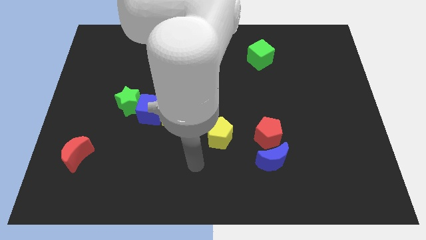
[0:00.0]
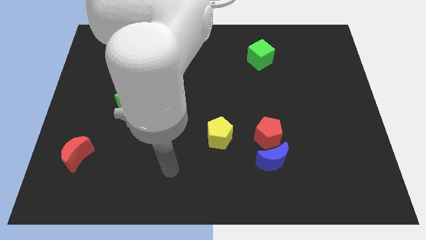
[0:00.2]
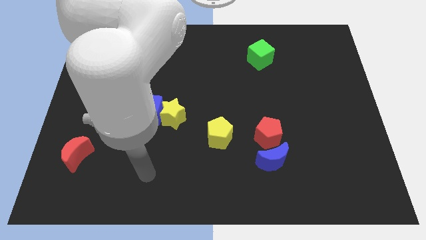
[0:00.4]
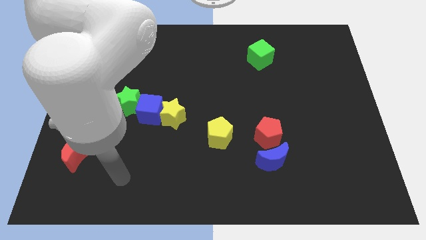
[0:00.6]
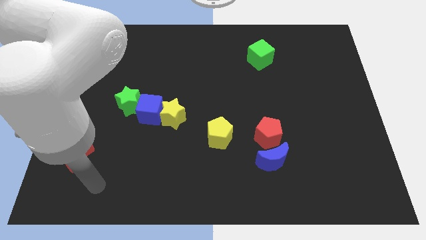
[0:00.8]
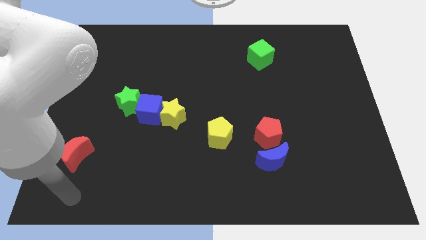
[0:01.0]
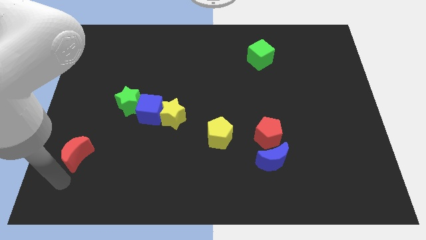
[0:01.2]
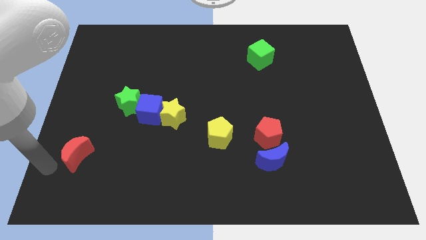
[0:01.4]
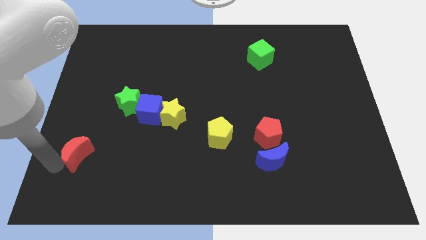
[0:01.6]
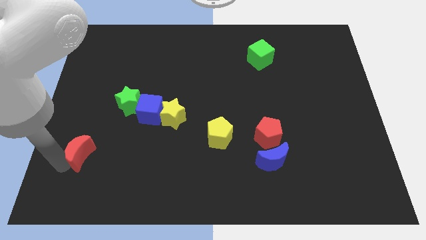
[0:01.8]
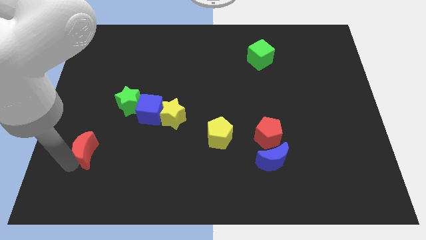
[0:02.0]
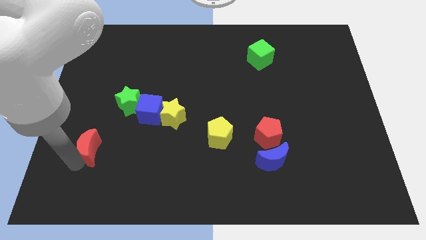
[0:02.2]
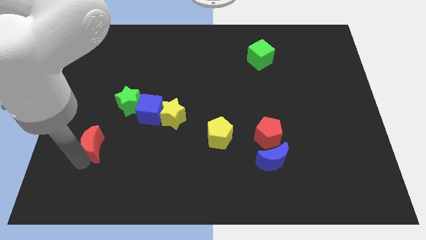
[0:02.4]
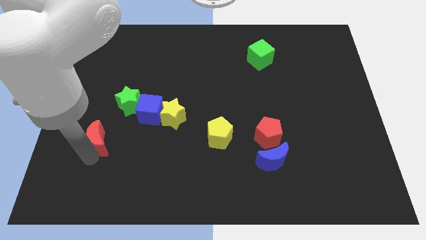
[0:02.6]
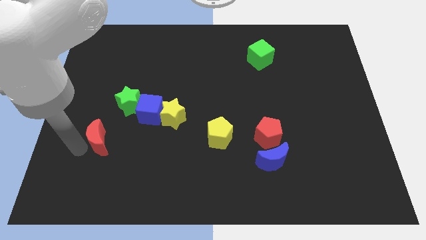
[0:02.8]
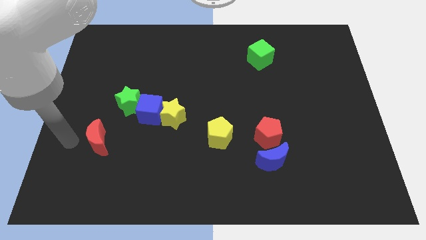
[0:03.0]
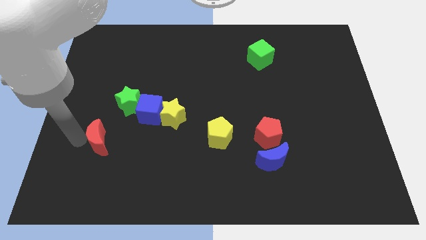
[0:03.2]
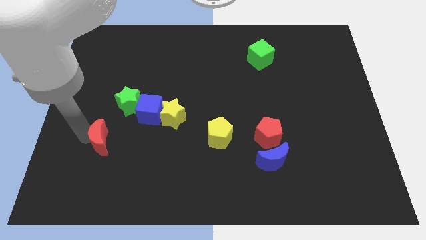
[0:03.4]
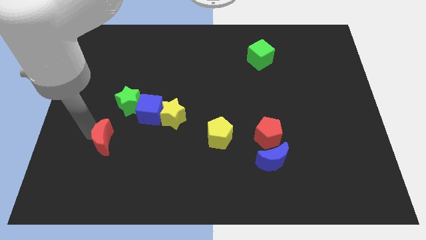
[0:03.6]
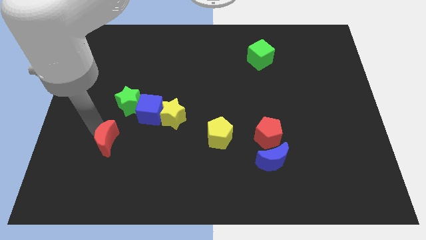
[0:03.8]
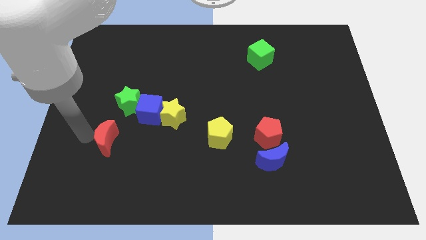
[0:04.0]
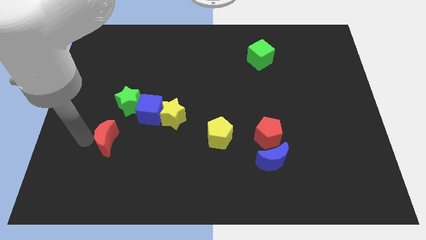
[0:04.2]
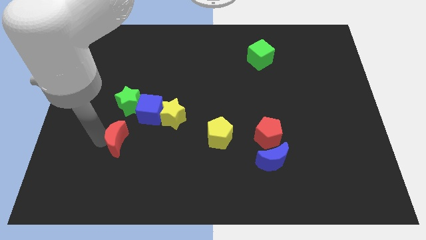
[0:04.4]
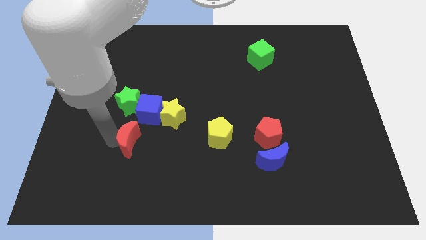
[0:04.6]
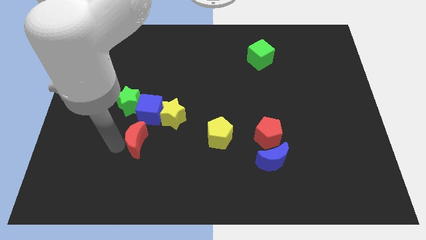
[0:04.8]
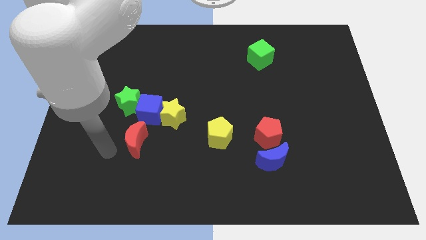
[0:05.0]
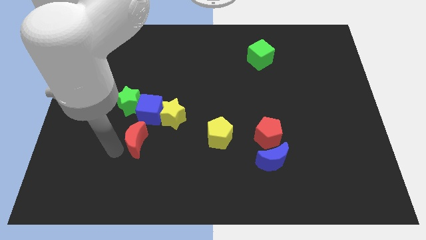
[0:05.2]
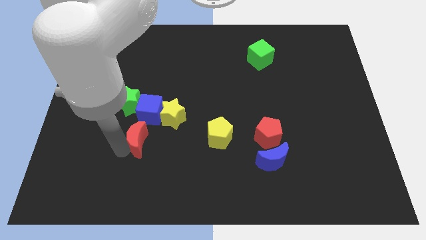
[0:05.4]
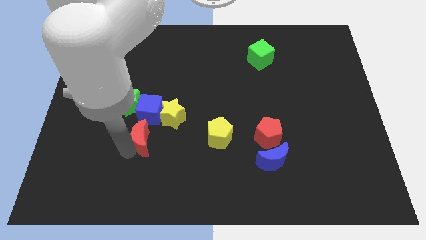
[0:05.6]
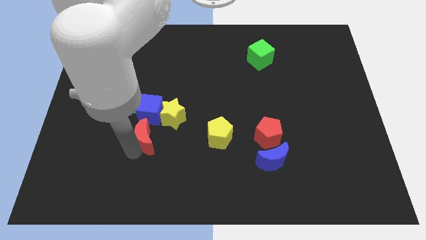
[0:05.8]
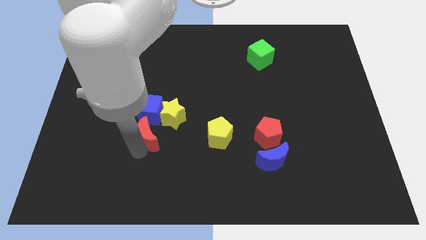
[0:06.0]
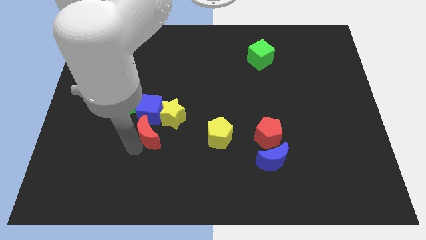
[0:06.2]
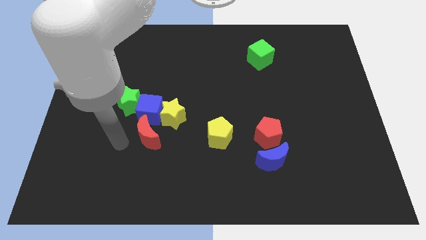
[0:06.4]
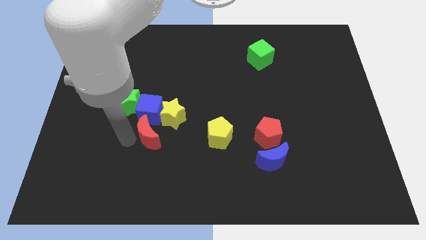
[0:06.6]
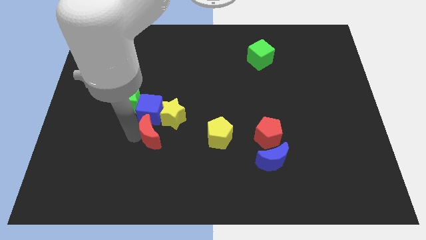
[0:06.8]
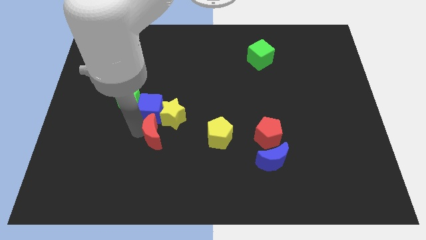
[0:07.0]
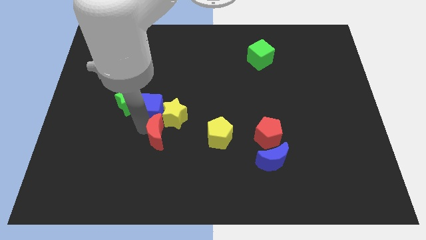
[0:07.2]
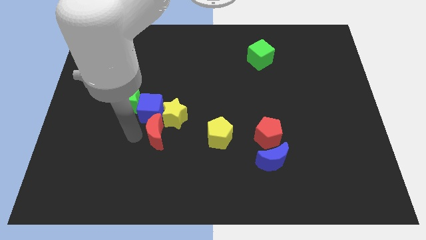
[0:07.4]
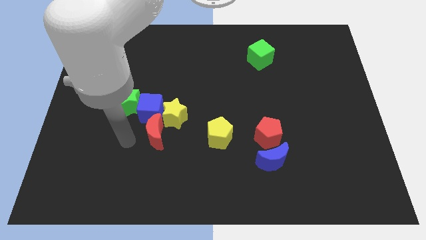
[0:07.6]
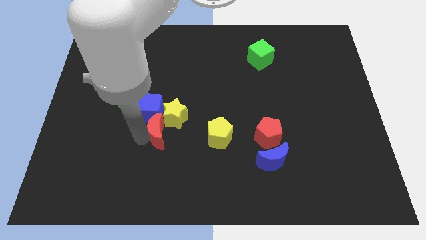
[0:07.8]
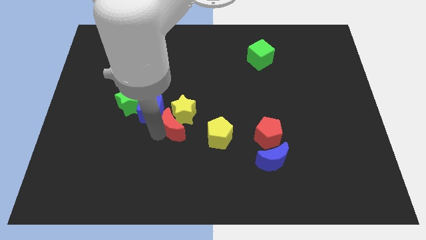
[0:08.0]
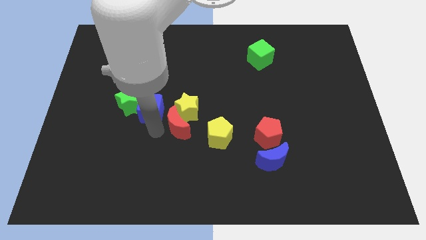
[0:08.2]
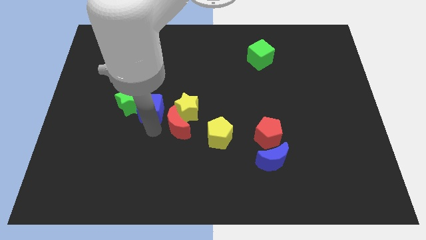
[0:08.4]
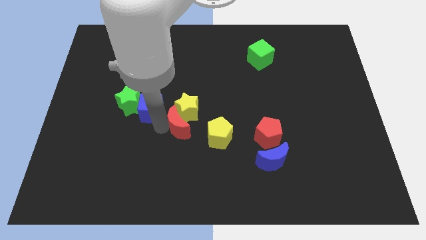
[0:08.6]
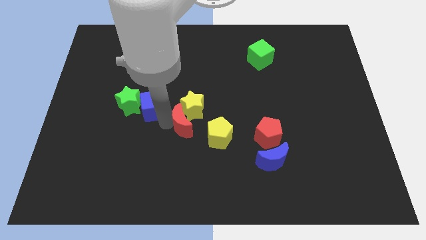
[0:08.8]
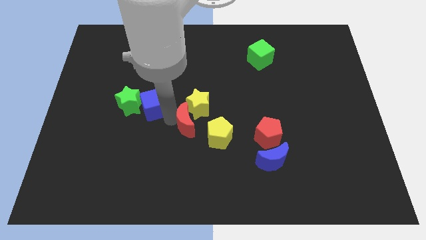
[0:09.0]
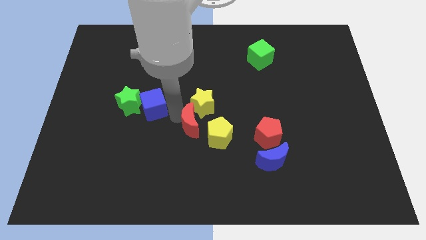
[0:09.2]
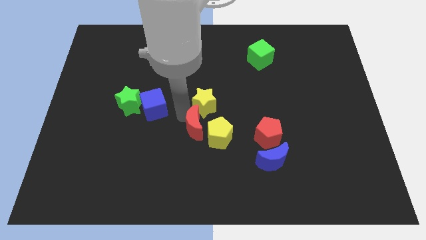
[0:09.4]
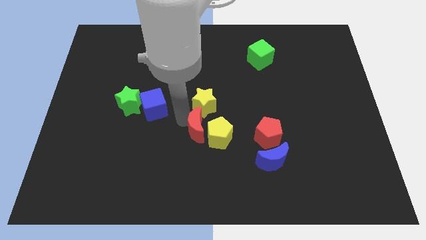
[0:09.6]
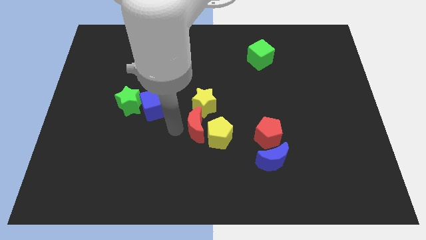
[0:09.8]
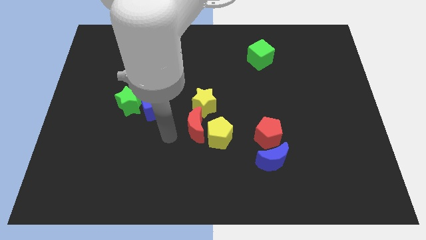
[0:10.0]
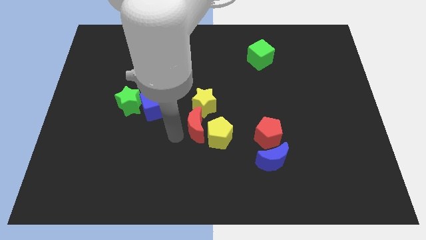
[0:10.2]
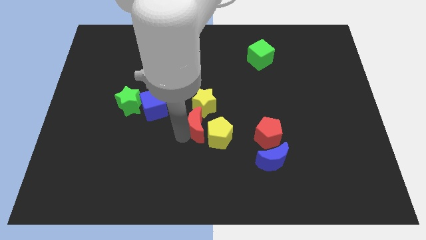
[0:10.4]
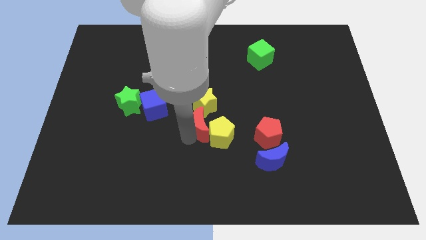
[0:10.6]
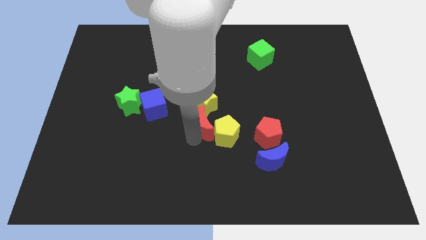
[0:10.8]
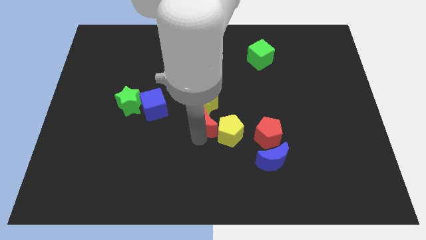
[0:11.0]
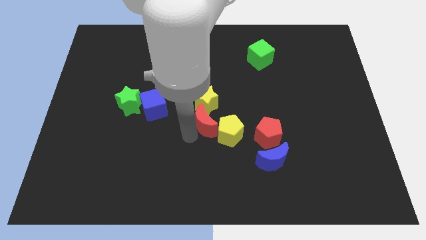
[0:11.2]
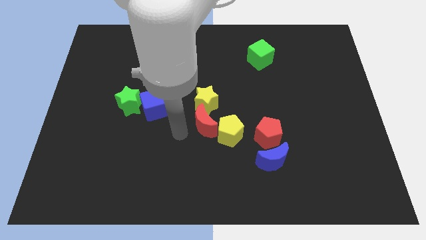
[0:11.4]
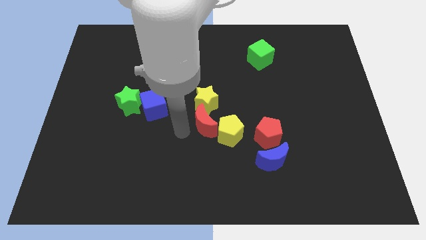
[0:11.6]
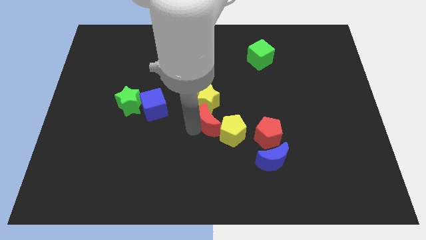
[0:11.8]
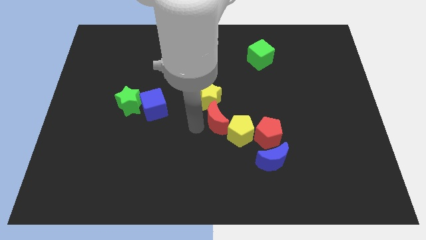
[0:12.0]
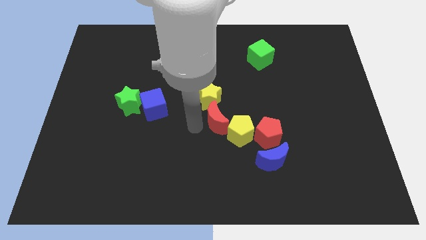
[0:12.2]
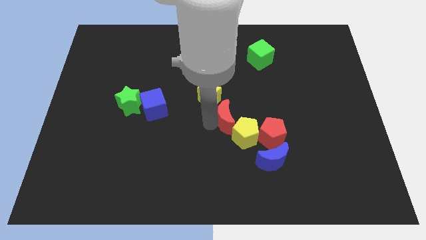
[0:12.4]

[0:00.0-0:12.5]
put the red moon to the top left of the red pentagon

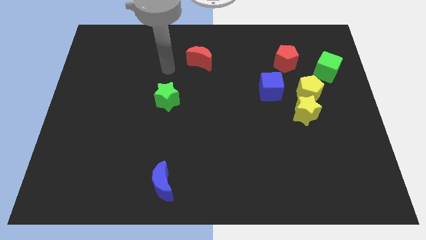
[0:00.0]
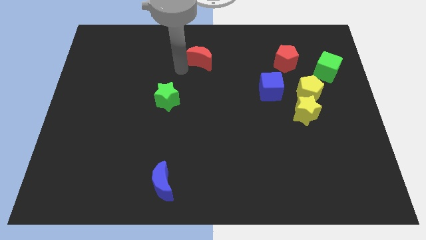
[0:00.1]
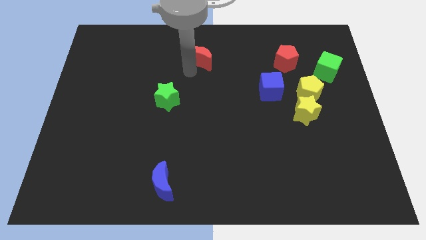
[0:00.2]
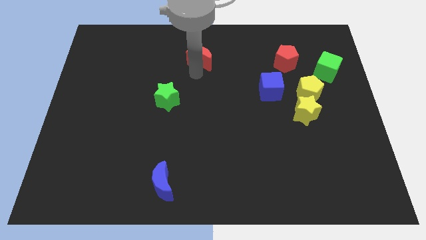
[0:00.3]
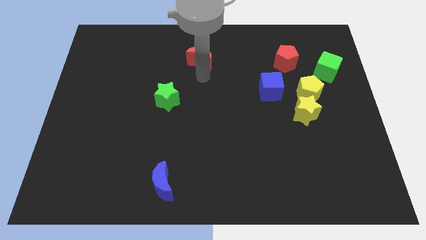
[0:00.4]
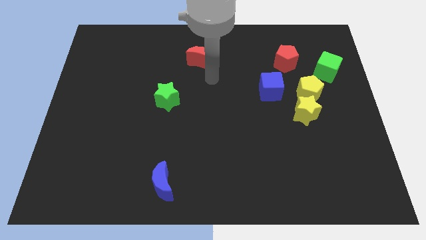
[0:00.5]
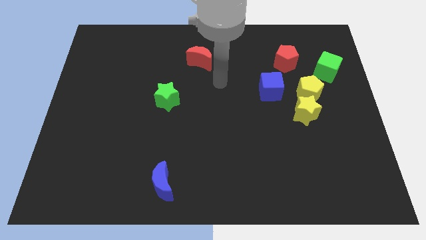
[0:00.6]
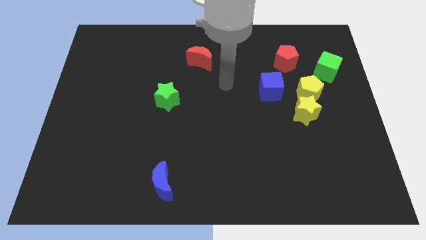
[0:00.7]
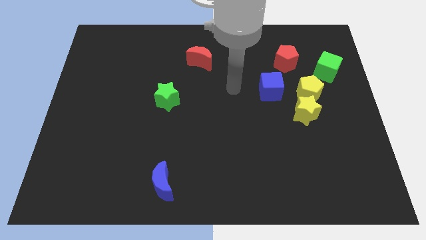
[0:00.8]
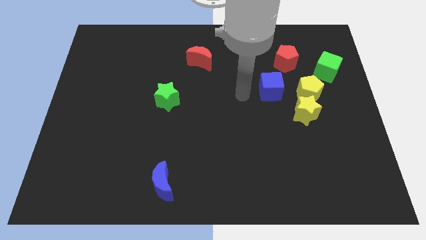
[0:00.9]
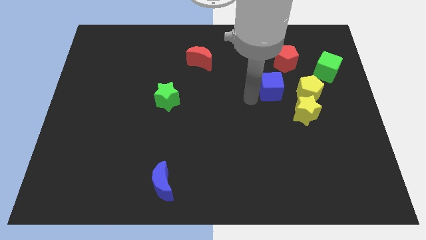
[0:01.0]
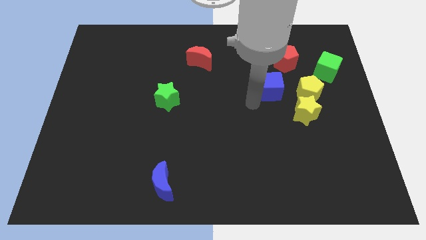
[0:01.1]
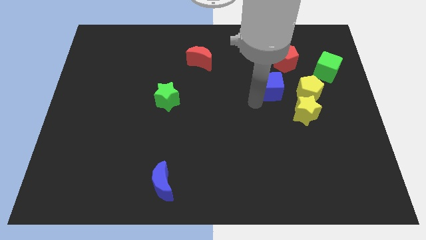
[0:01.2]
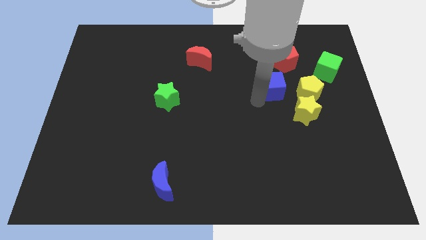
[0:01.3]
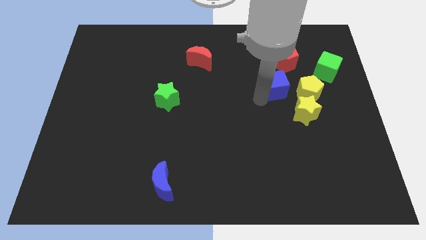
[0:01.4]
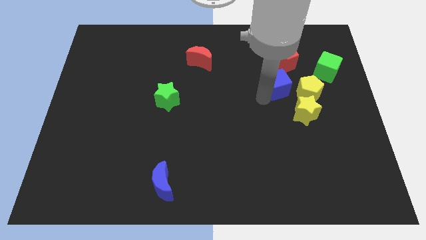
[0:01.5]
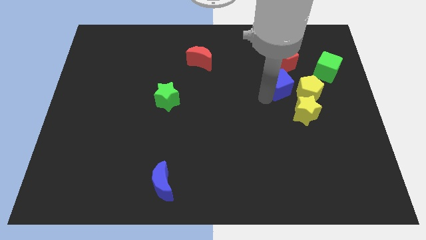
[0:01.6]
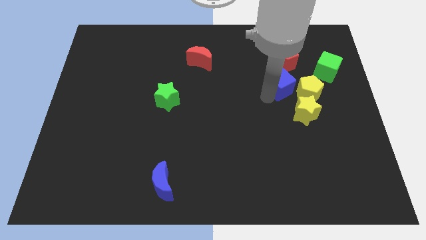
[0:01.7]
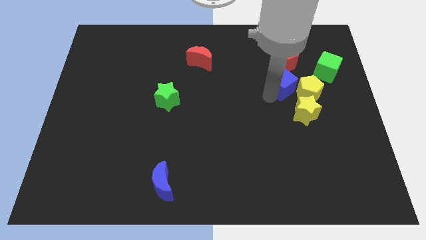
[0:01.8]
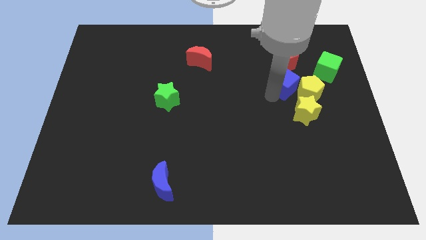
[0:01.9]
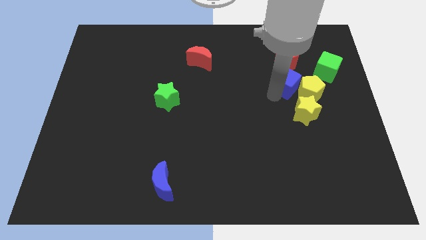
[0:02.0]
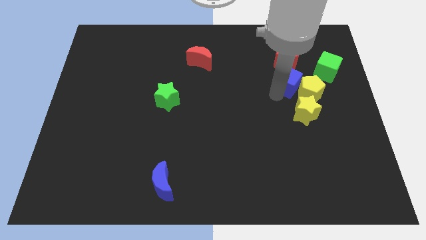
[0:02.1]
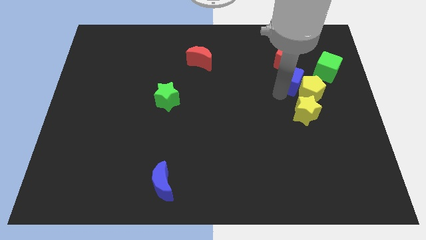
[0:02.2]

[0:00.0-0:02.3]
push the blue cube to the top of the yellow pentagon
